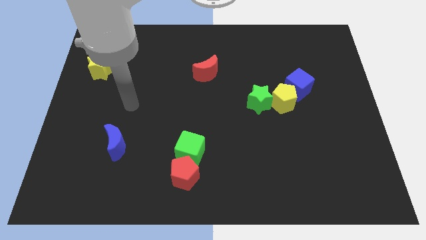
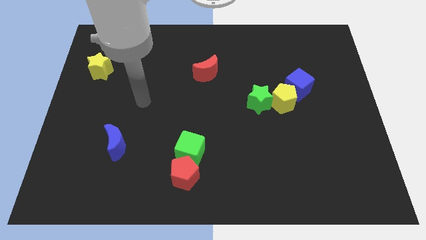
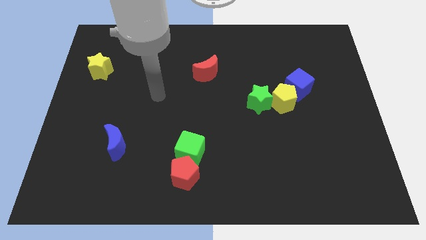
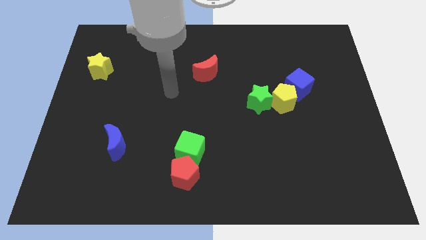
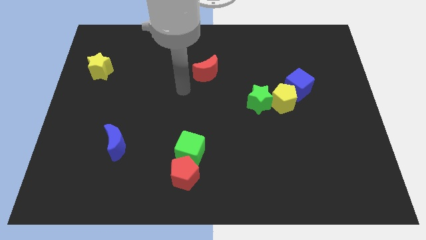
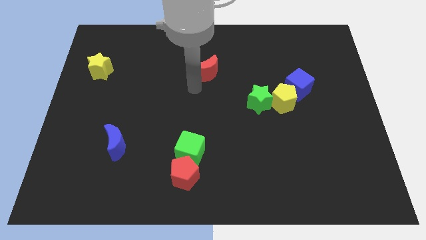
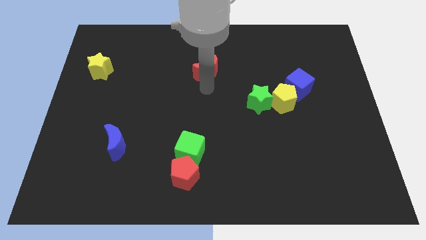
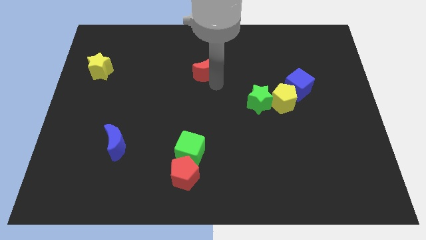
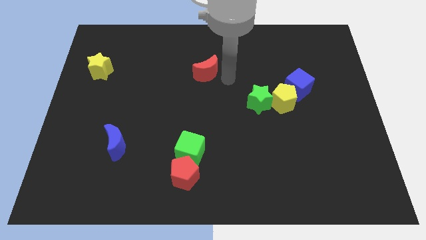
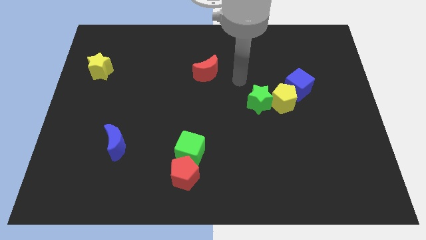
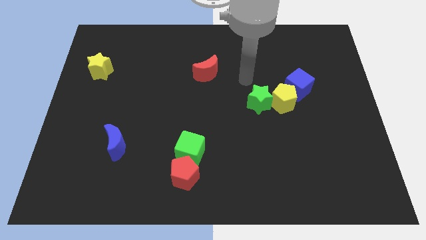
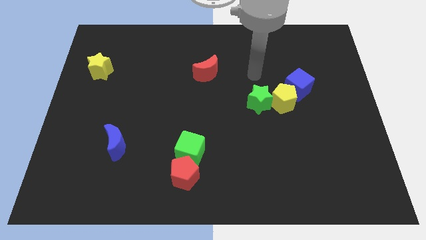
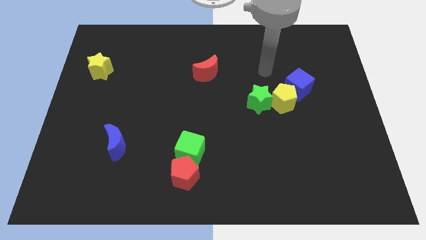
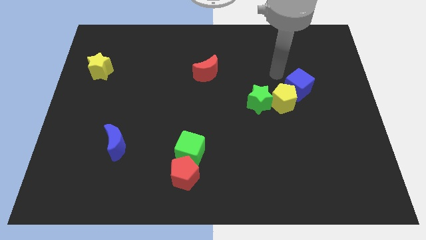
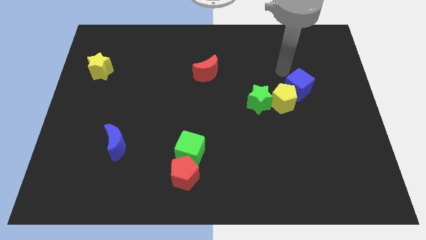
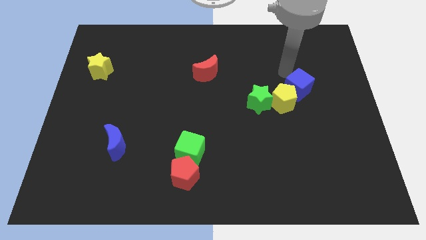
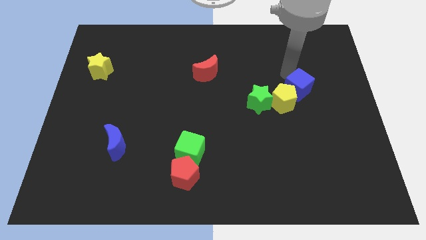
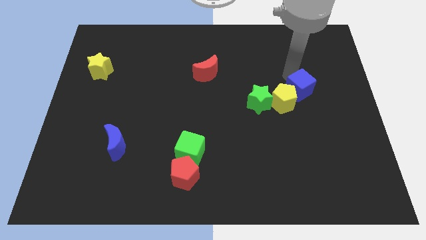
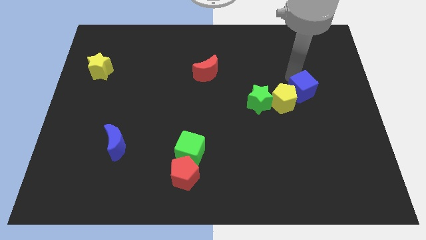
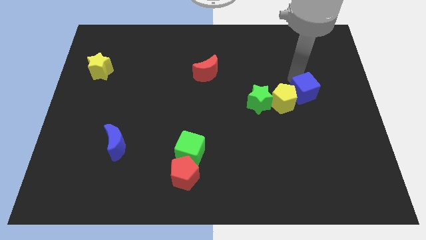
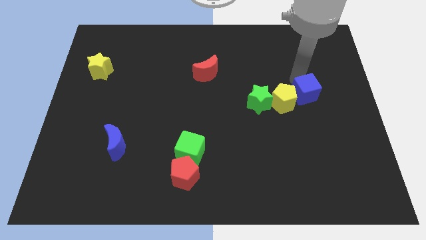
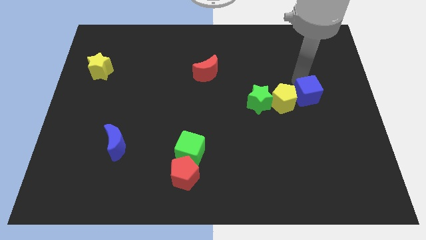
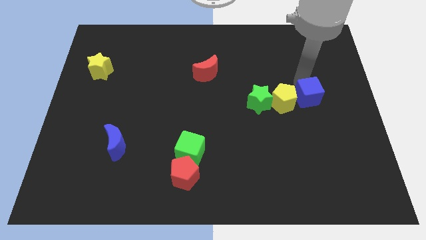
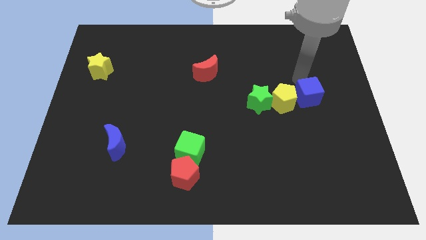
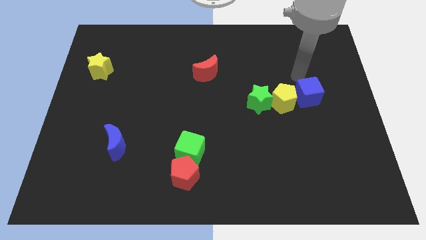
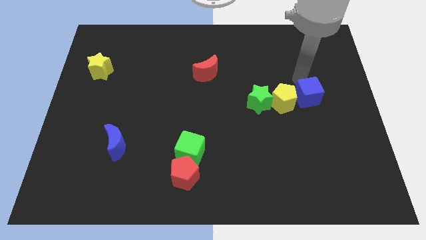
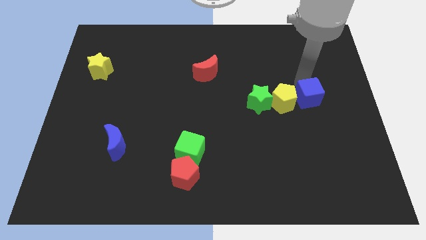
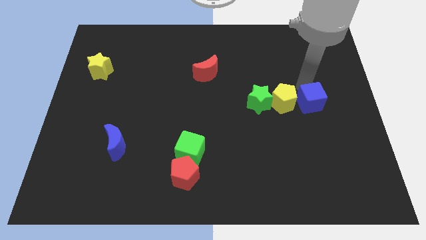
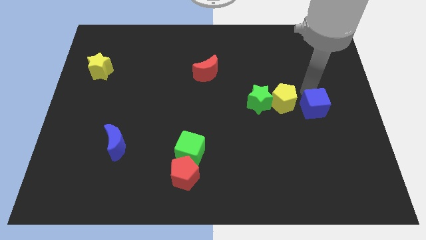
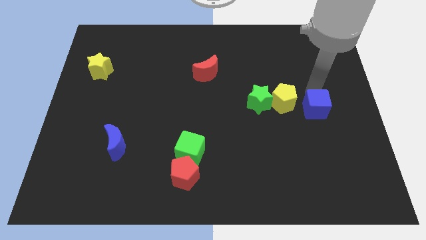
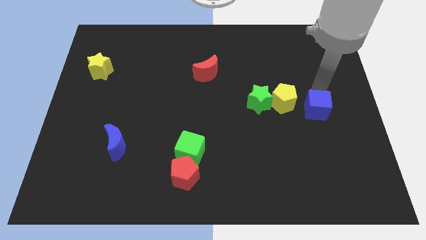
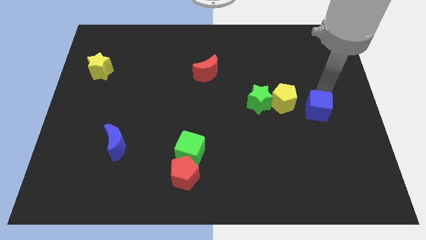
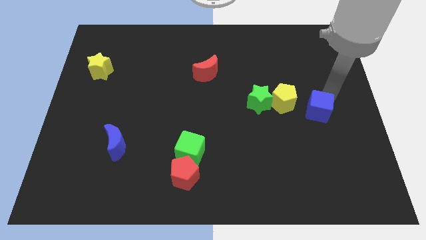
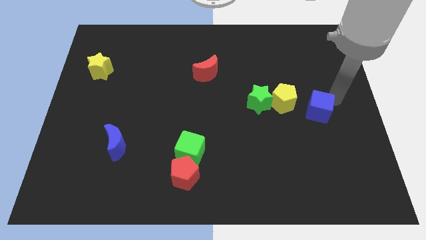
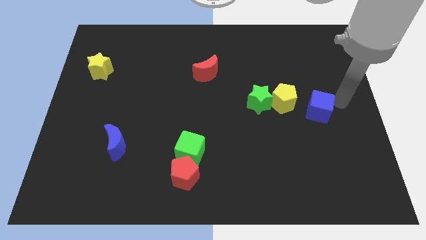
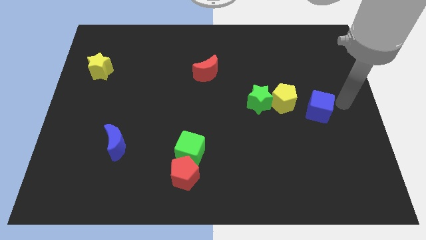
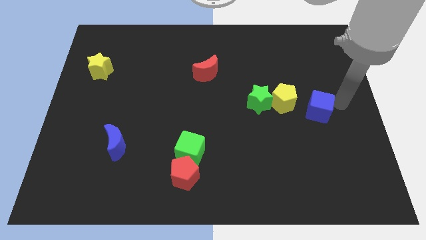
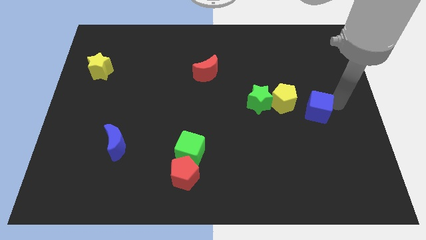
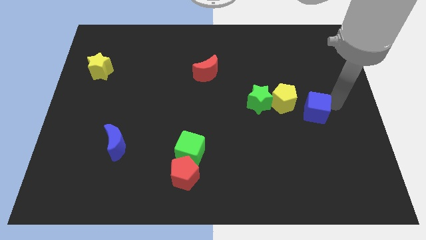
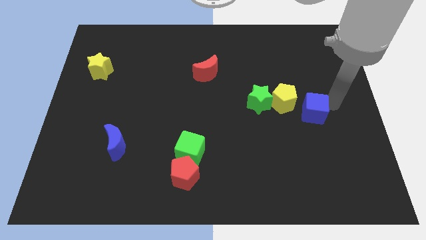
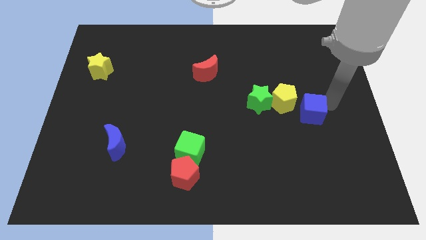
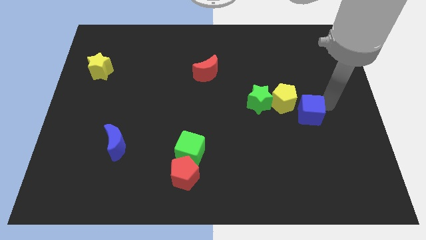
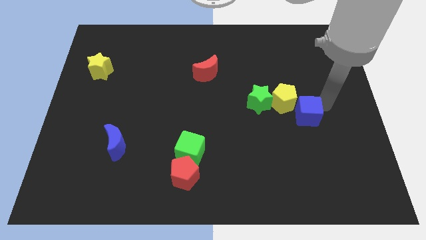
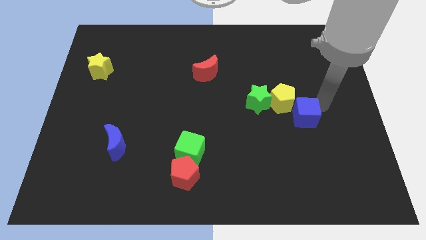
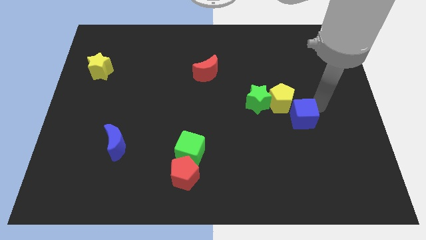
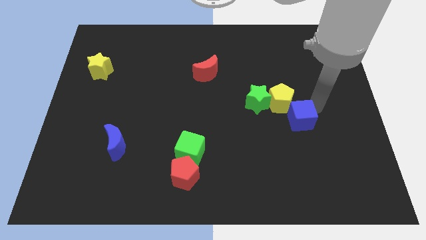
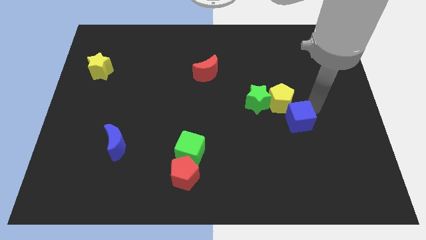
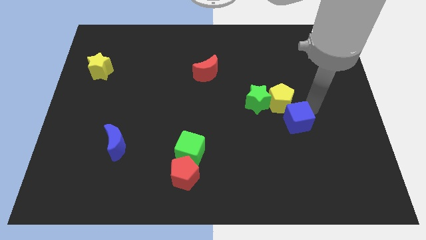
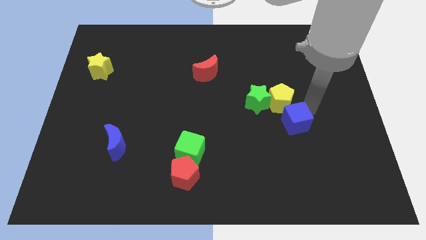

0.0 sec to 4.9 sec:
slide the blue cube a little bit downwards and left

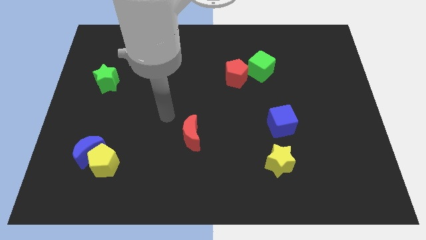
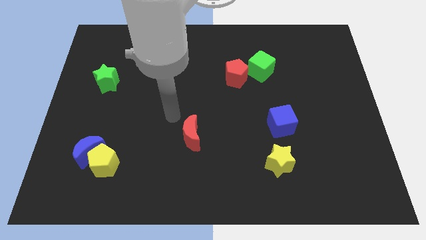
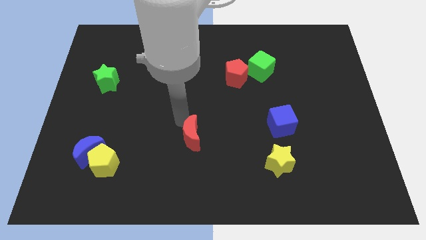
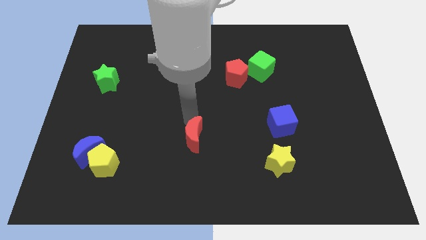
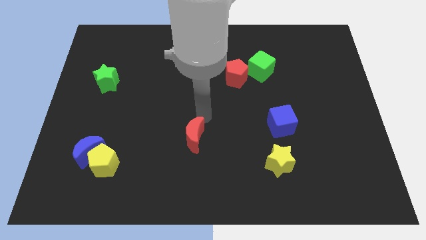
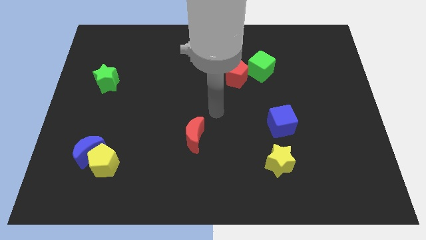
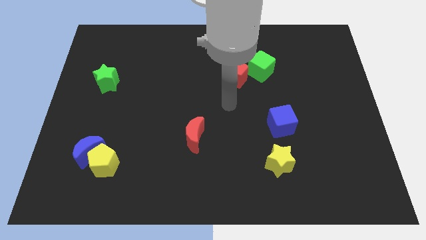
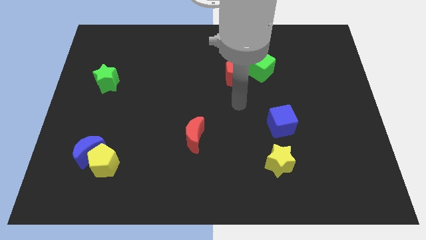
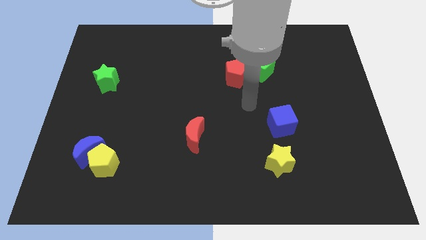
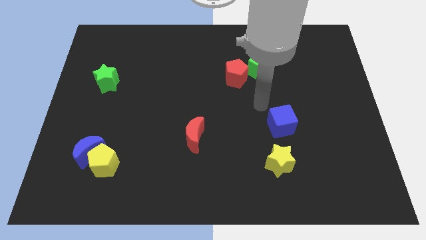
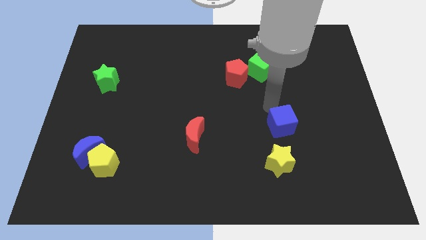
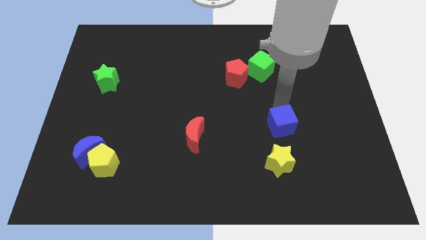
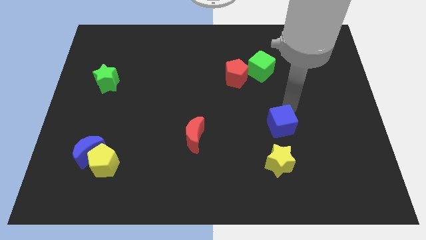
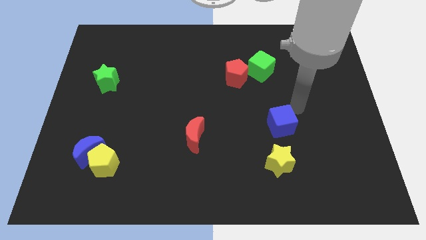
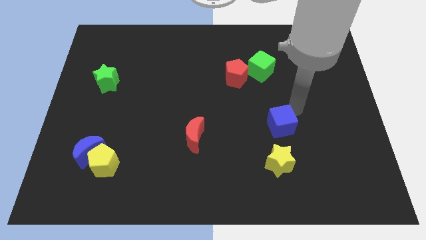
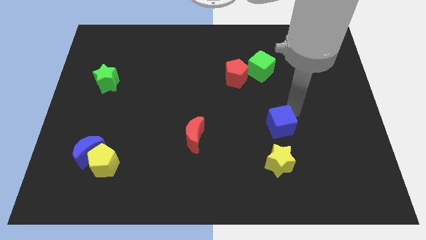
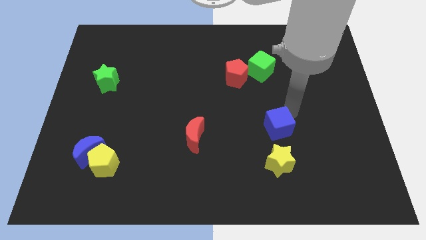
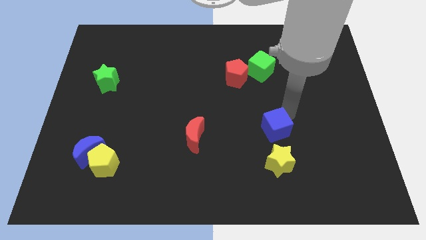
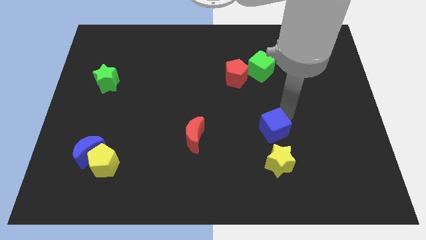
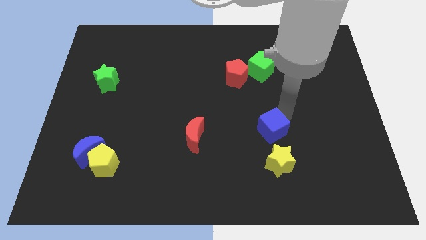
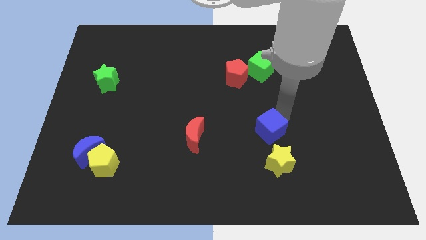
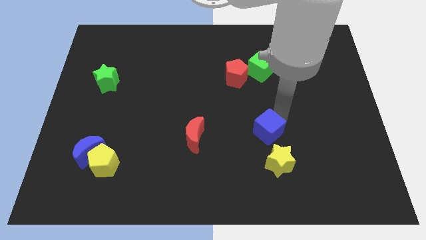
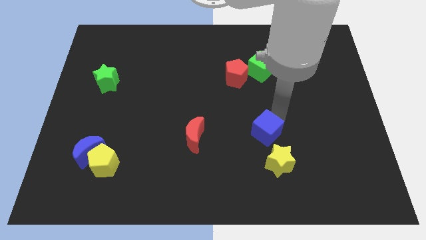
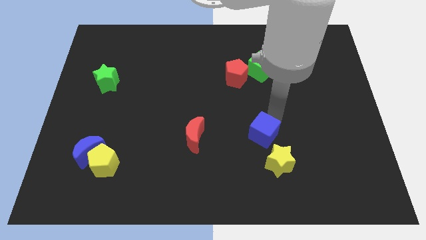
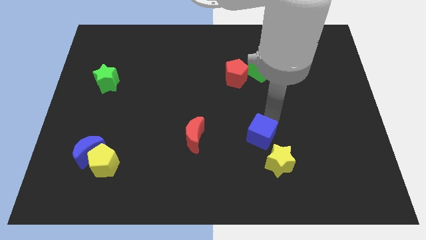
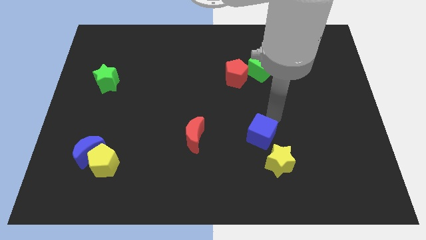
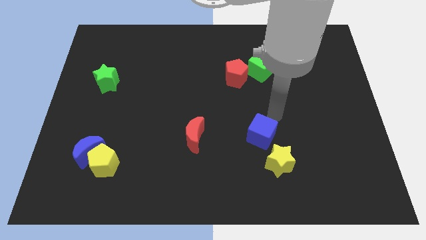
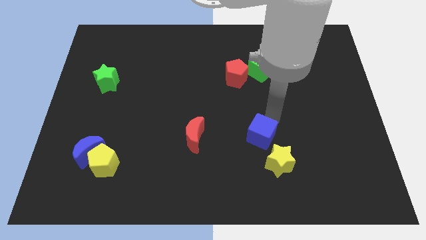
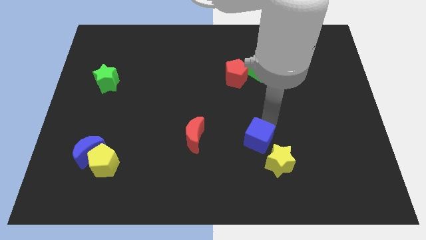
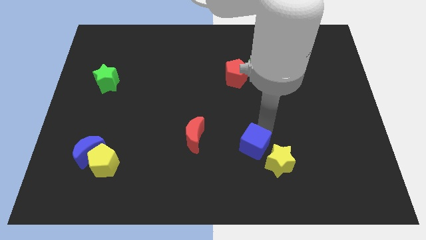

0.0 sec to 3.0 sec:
push the blue cube a bit down and then left

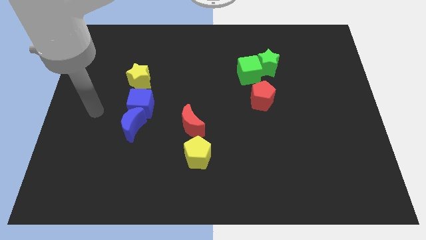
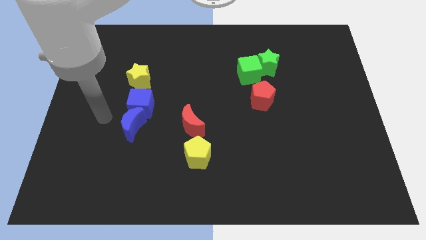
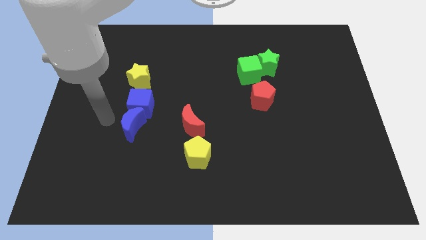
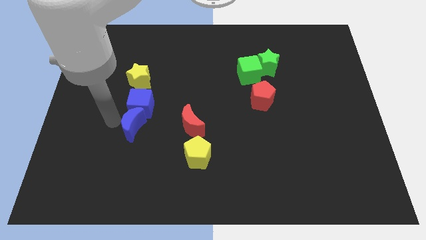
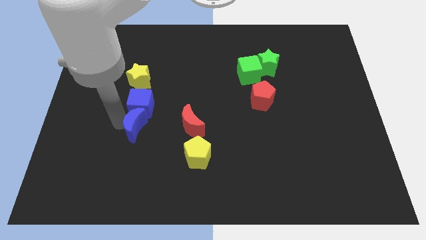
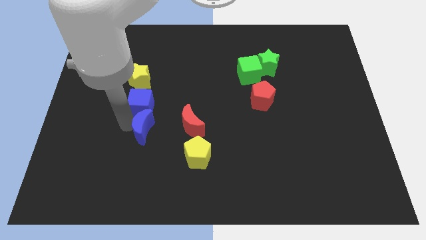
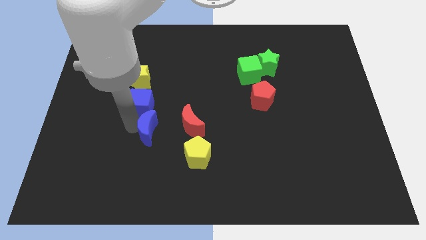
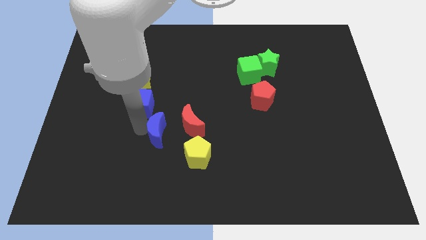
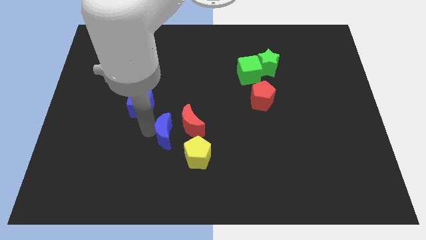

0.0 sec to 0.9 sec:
slide the blue moon to the right somewhat
